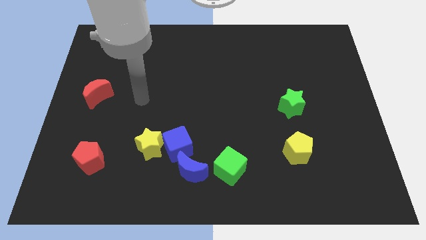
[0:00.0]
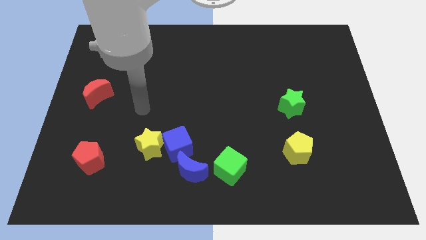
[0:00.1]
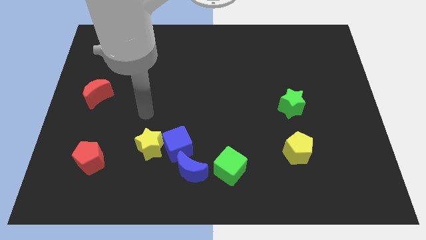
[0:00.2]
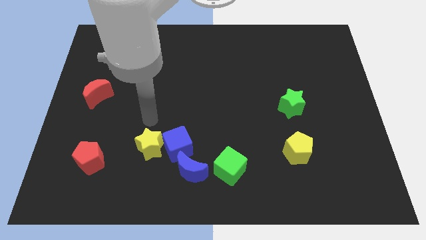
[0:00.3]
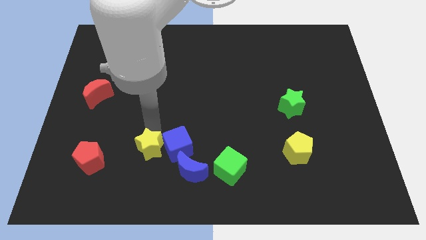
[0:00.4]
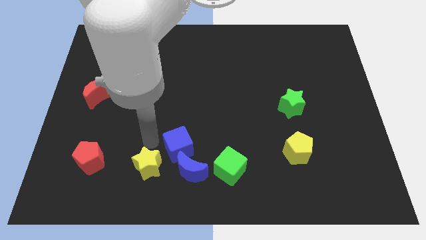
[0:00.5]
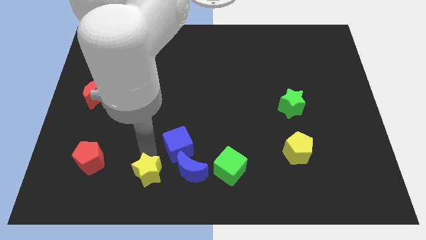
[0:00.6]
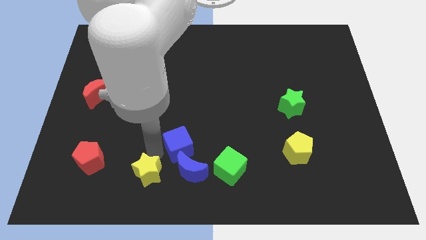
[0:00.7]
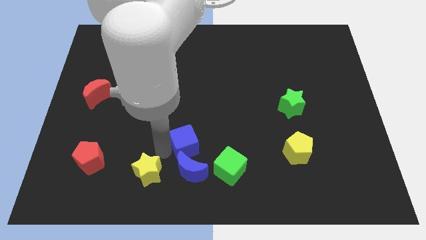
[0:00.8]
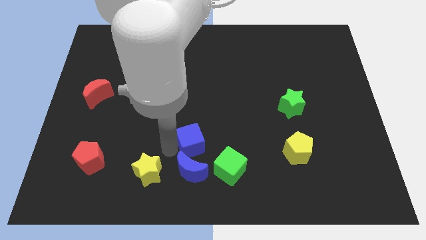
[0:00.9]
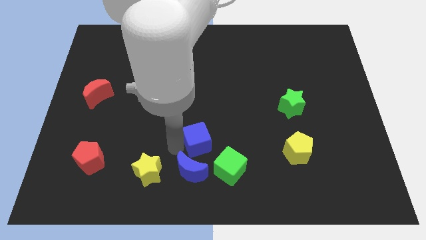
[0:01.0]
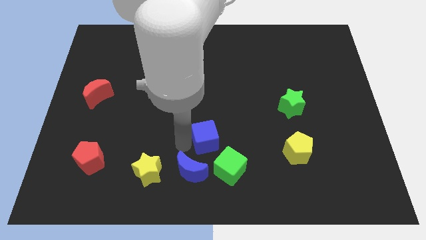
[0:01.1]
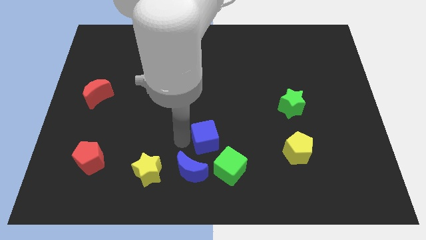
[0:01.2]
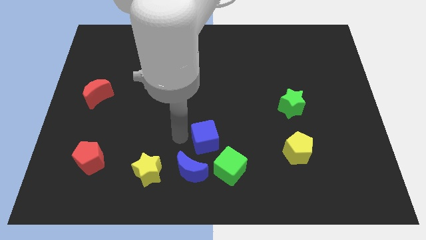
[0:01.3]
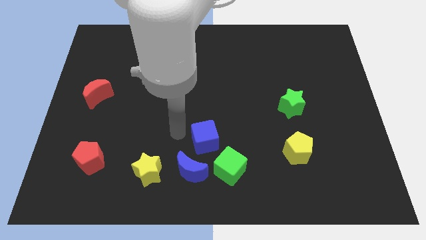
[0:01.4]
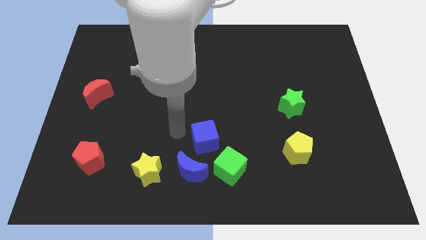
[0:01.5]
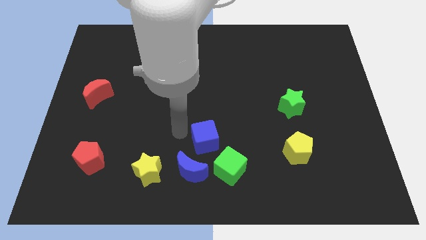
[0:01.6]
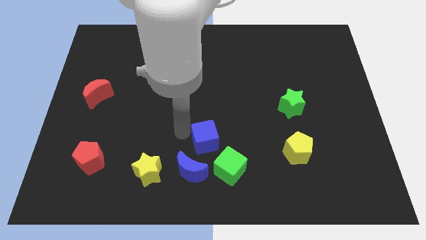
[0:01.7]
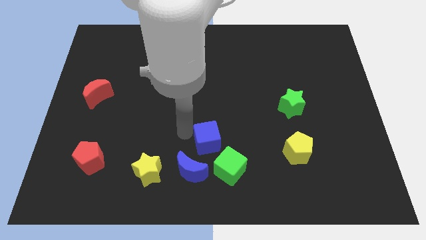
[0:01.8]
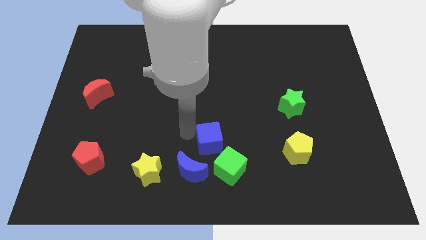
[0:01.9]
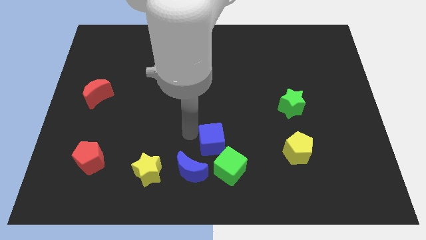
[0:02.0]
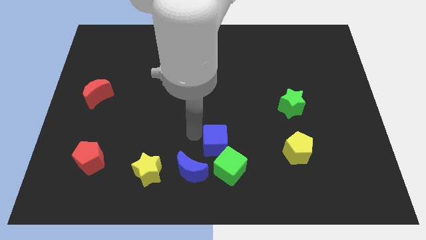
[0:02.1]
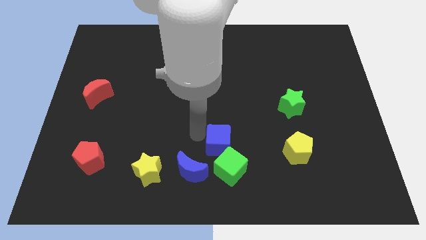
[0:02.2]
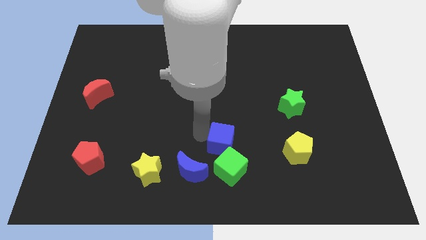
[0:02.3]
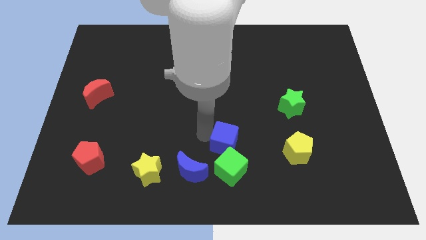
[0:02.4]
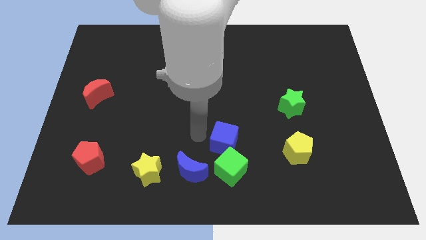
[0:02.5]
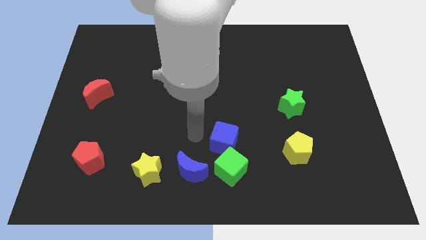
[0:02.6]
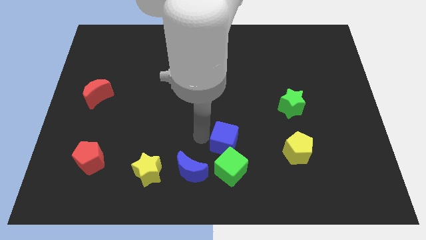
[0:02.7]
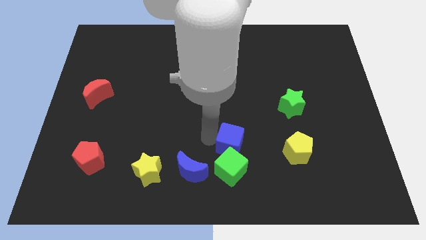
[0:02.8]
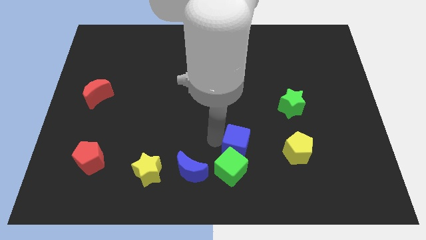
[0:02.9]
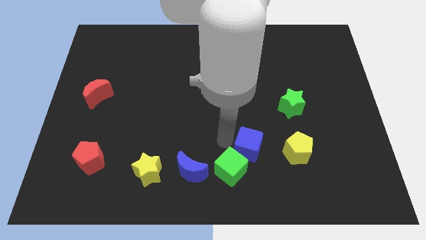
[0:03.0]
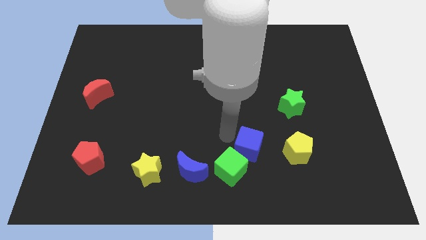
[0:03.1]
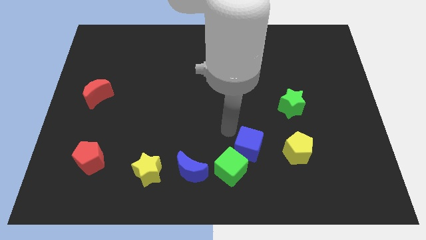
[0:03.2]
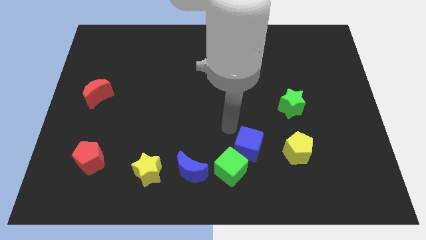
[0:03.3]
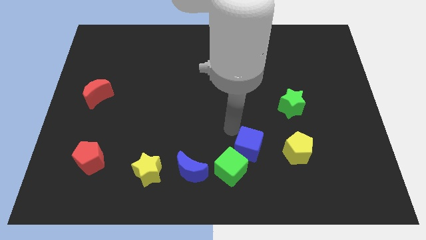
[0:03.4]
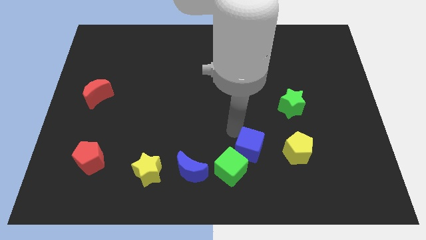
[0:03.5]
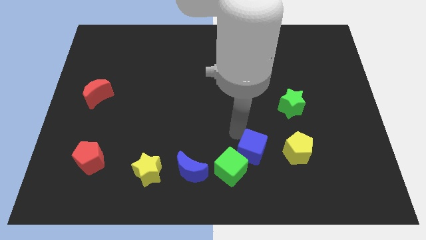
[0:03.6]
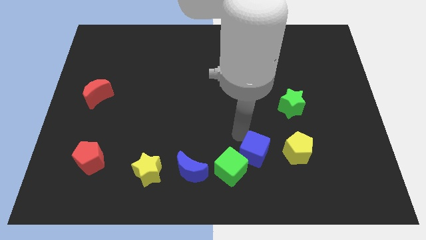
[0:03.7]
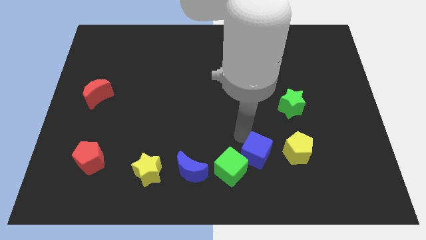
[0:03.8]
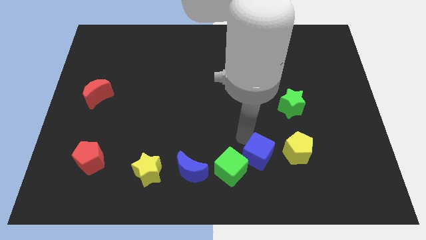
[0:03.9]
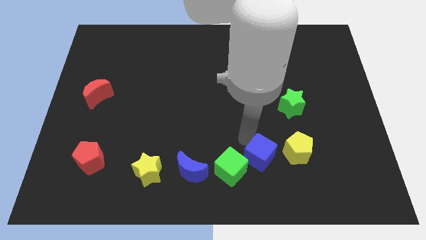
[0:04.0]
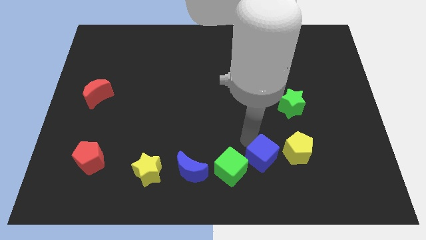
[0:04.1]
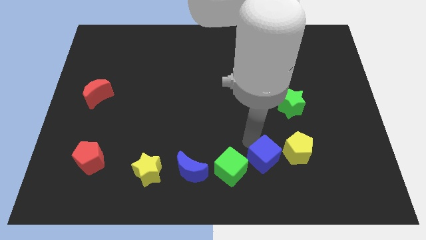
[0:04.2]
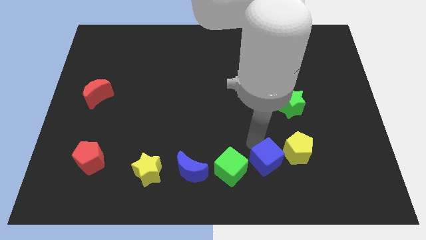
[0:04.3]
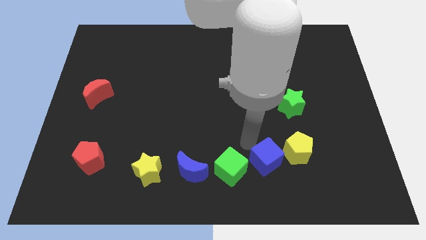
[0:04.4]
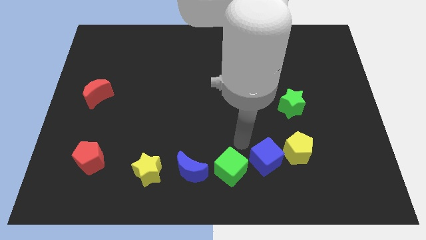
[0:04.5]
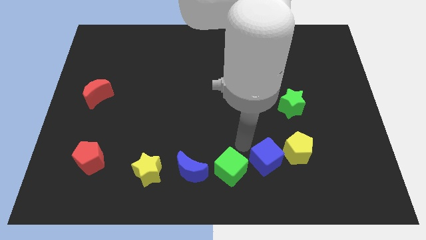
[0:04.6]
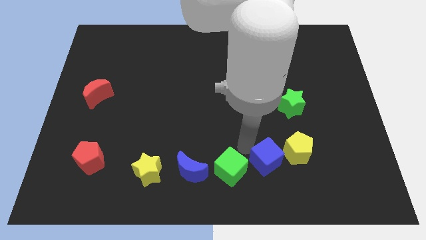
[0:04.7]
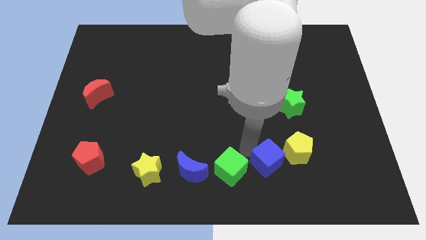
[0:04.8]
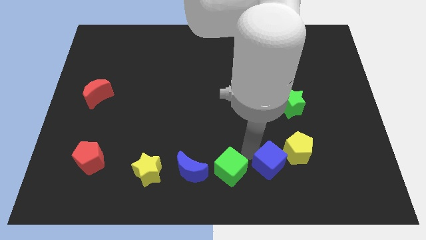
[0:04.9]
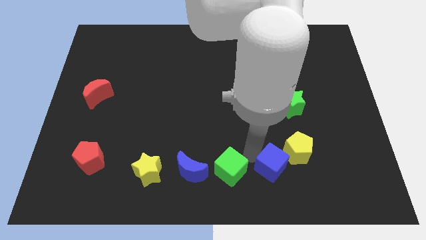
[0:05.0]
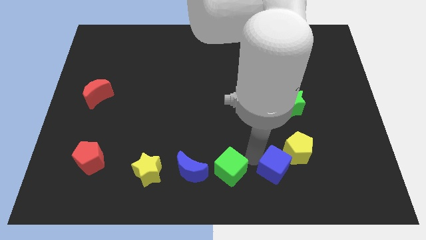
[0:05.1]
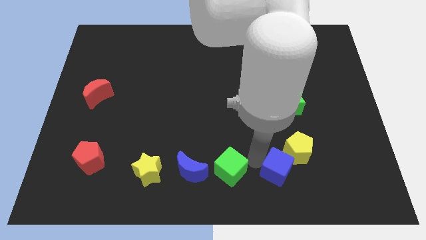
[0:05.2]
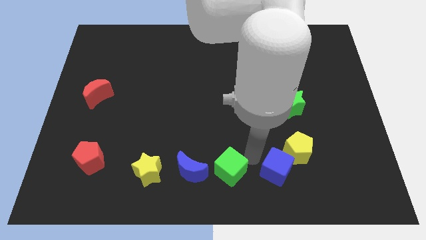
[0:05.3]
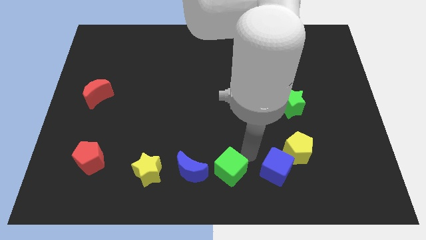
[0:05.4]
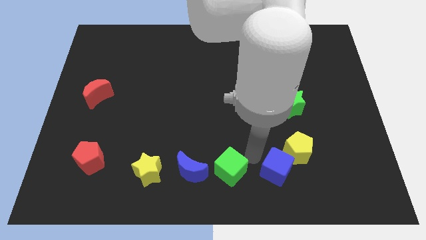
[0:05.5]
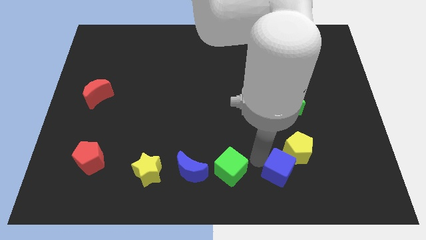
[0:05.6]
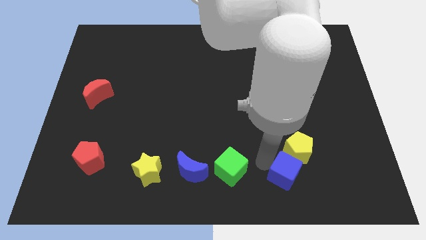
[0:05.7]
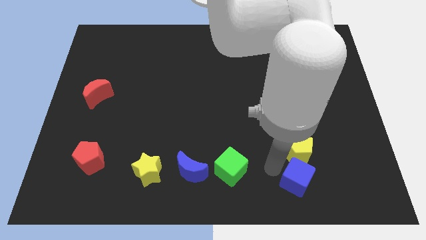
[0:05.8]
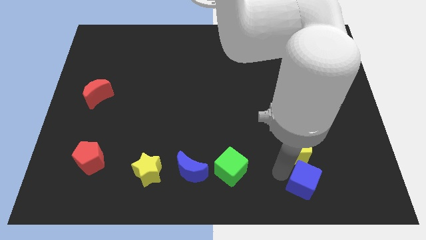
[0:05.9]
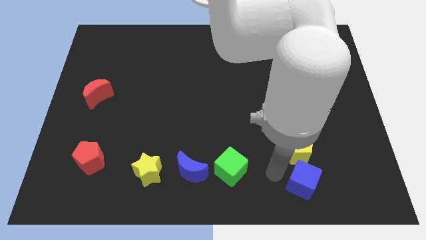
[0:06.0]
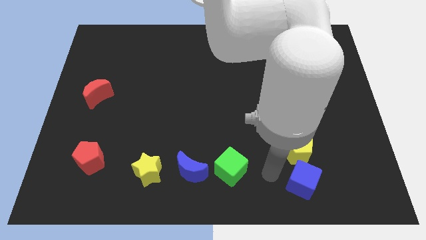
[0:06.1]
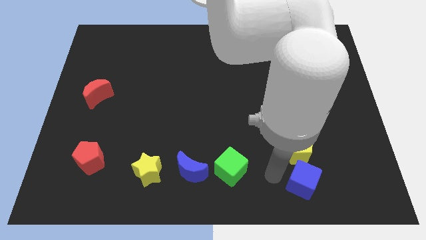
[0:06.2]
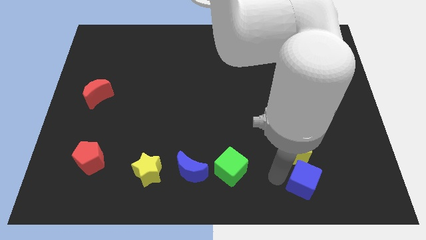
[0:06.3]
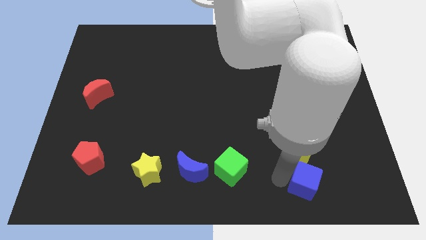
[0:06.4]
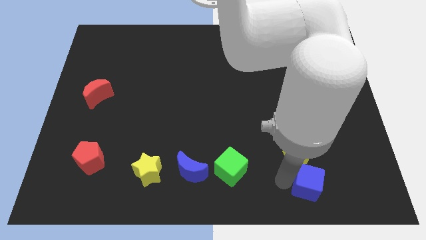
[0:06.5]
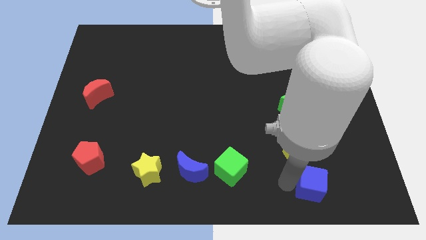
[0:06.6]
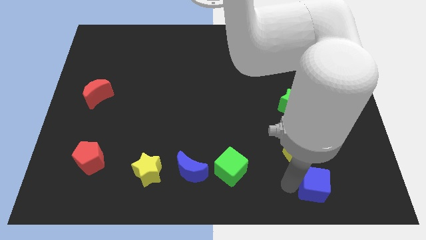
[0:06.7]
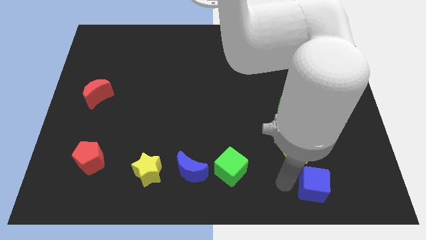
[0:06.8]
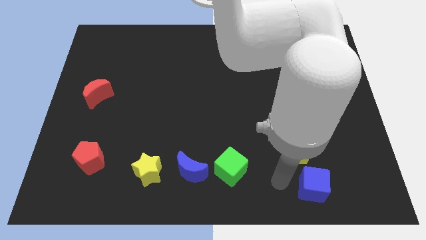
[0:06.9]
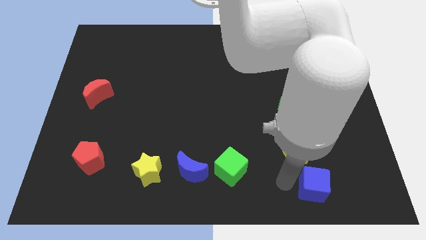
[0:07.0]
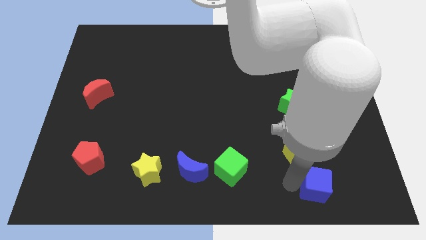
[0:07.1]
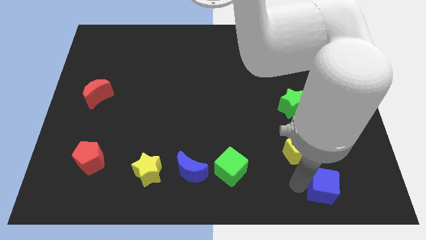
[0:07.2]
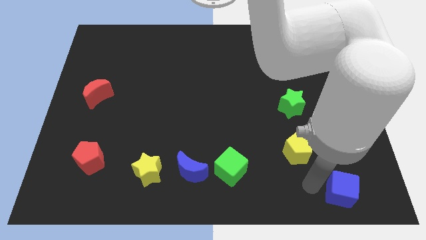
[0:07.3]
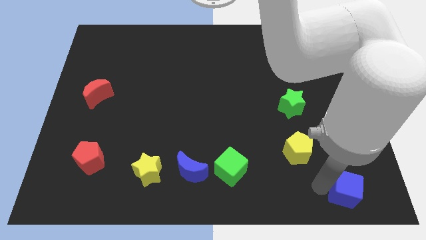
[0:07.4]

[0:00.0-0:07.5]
move the blue cube to the lower right corner
